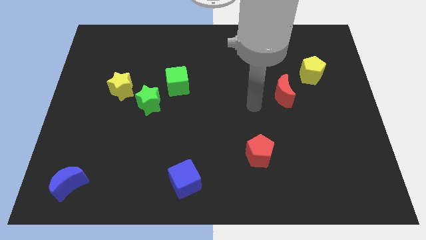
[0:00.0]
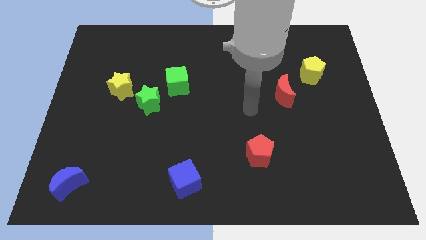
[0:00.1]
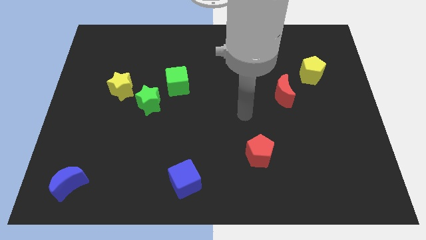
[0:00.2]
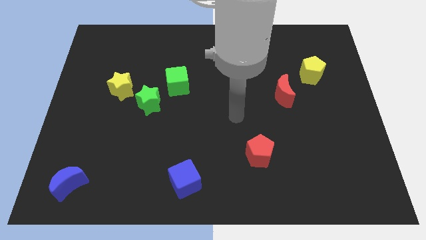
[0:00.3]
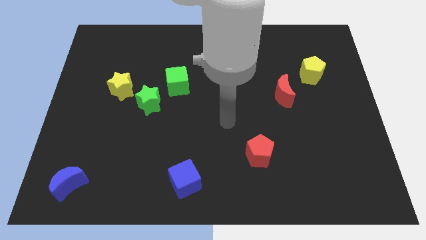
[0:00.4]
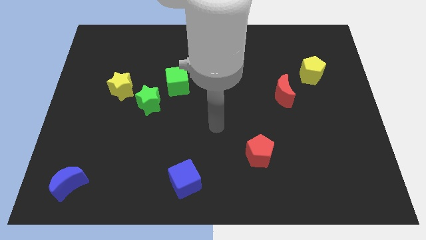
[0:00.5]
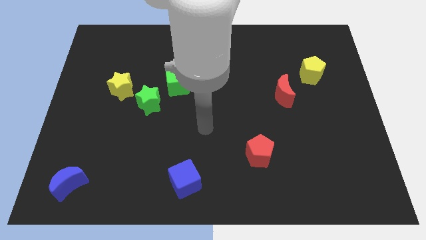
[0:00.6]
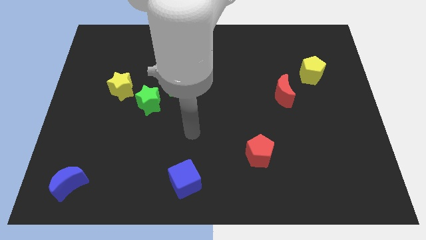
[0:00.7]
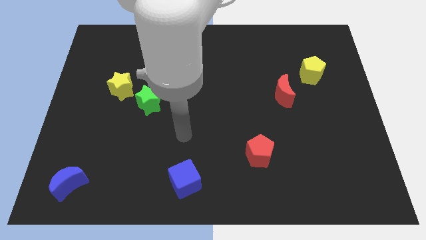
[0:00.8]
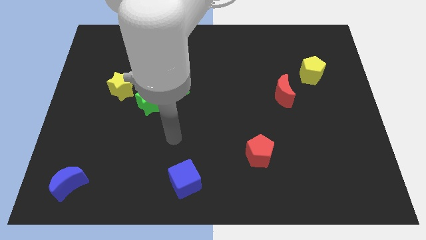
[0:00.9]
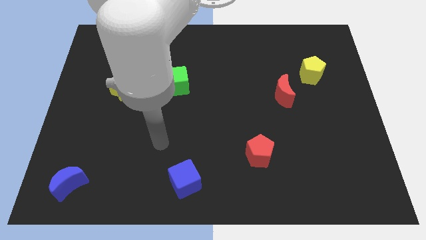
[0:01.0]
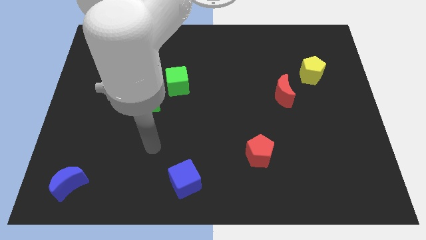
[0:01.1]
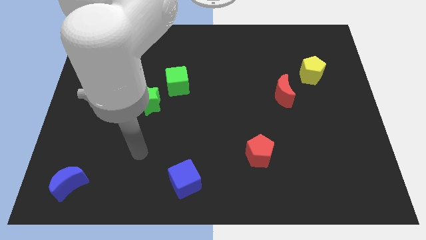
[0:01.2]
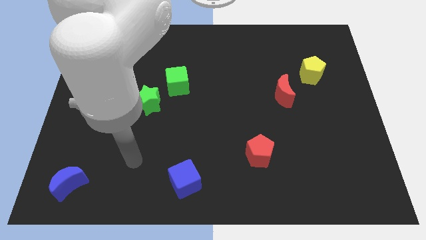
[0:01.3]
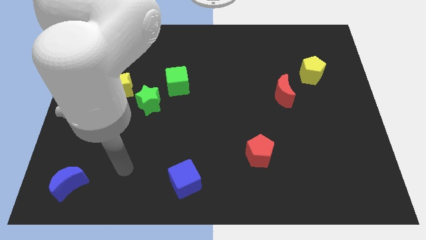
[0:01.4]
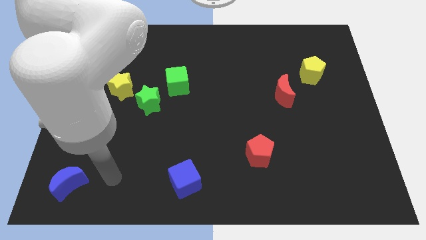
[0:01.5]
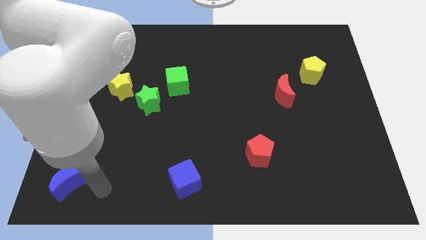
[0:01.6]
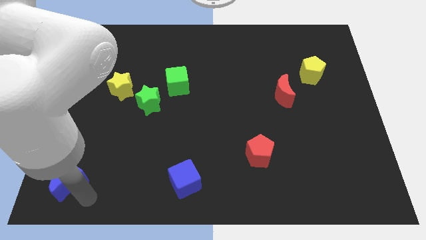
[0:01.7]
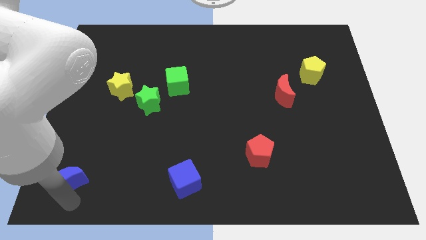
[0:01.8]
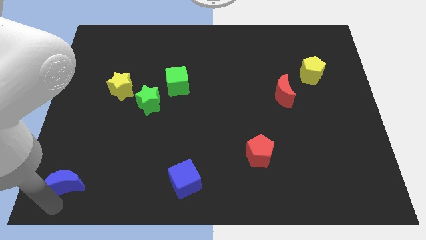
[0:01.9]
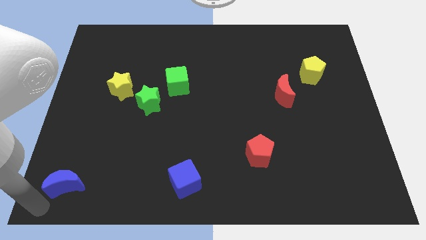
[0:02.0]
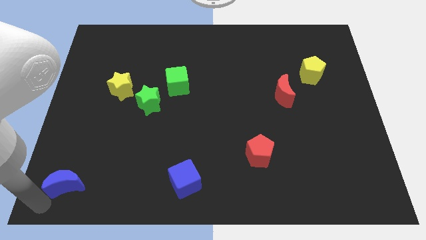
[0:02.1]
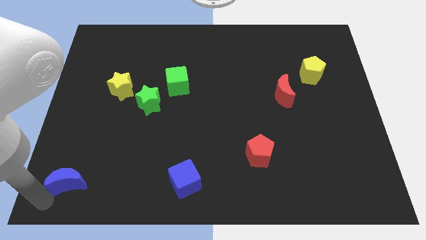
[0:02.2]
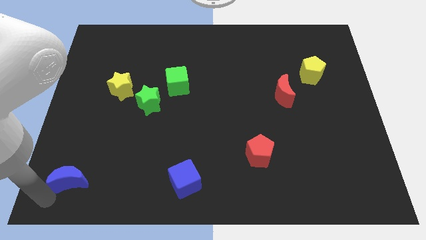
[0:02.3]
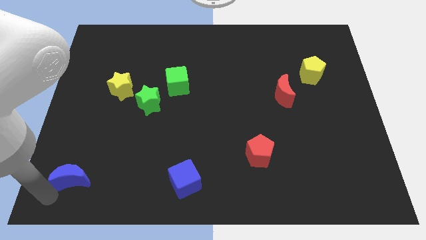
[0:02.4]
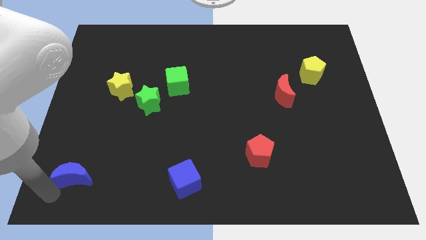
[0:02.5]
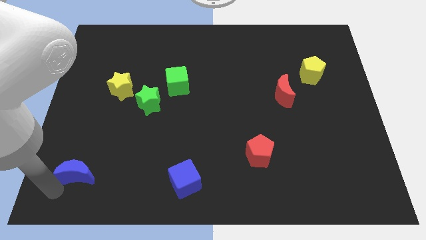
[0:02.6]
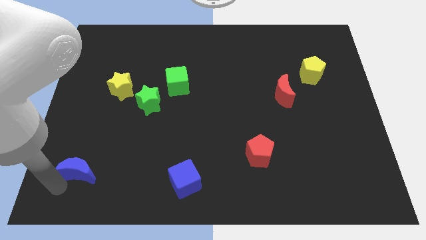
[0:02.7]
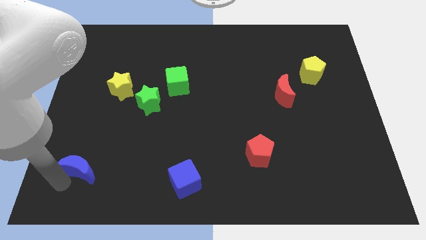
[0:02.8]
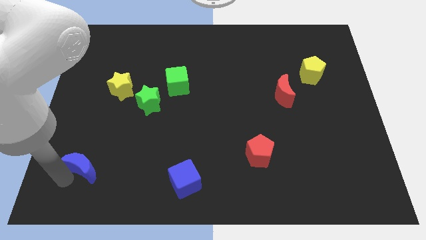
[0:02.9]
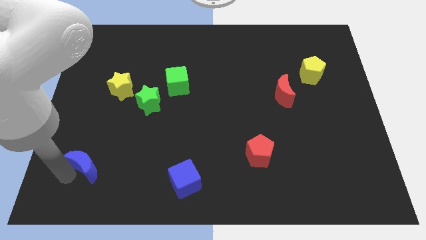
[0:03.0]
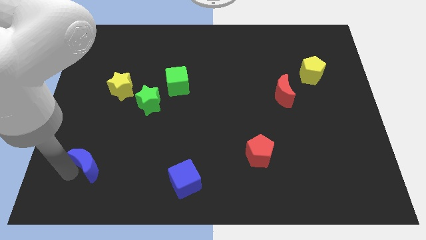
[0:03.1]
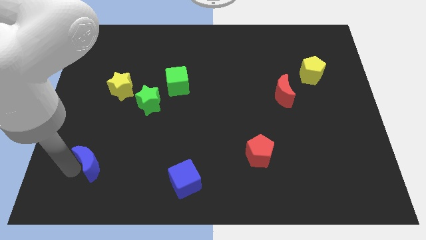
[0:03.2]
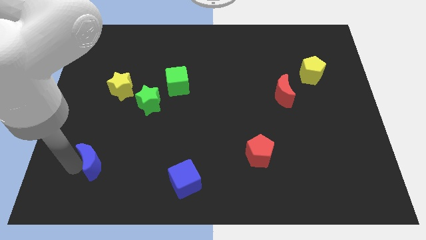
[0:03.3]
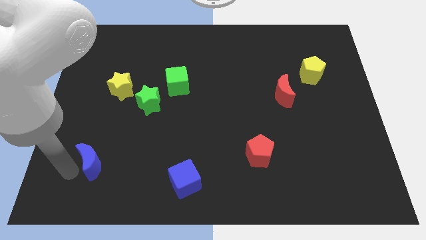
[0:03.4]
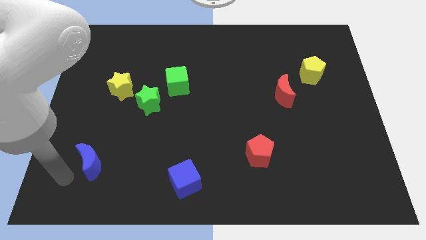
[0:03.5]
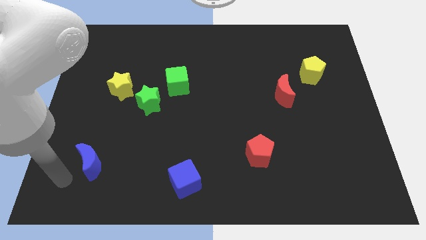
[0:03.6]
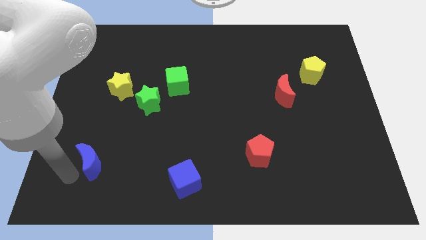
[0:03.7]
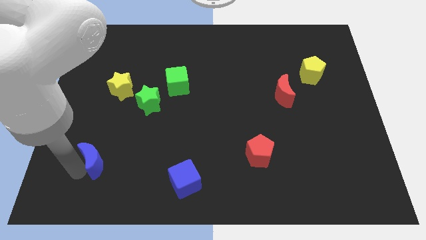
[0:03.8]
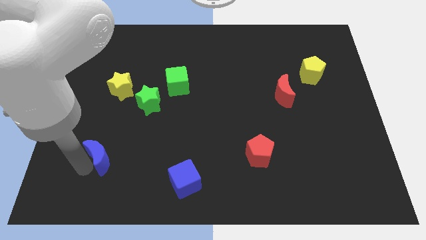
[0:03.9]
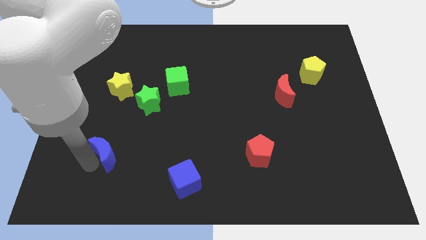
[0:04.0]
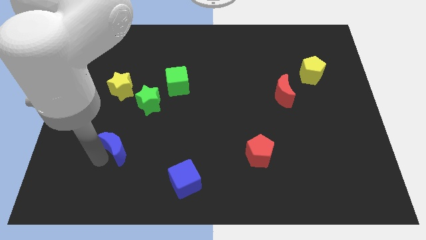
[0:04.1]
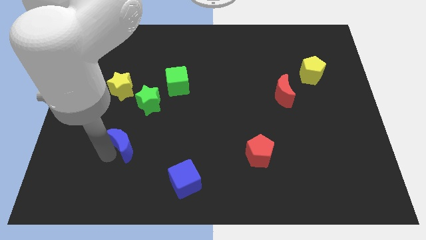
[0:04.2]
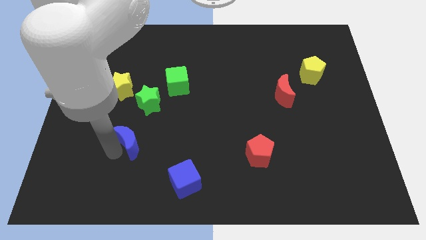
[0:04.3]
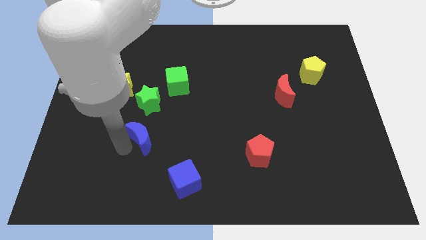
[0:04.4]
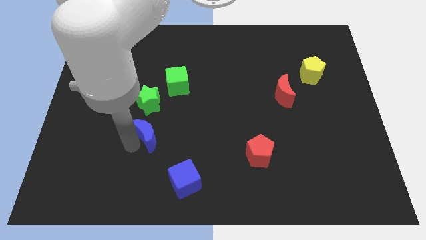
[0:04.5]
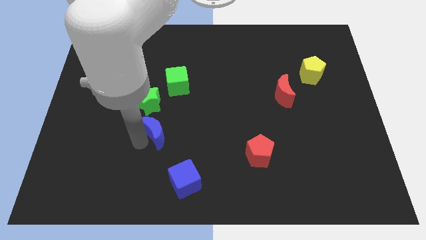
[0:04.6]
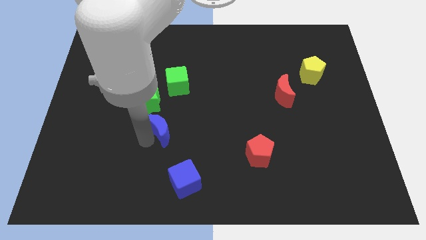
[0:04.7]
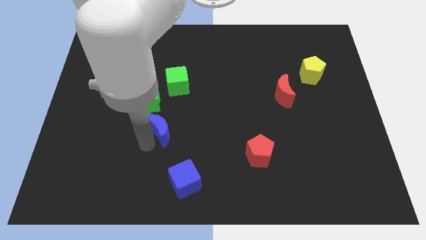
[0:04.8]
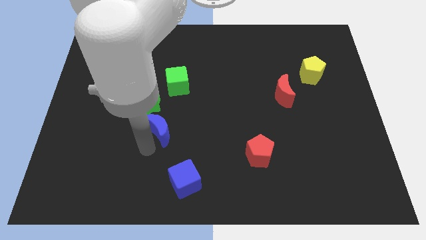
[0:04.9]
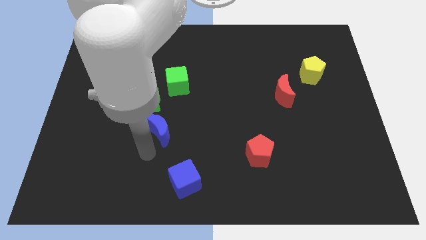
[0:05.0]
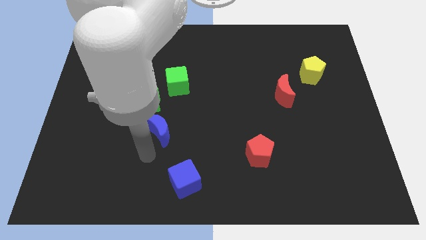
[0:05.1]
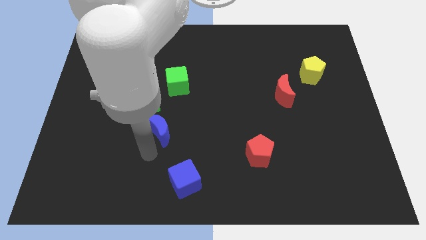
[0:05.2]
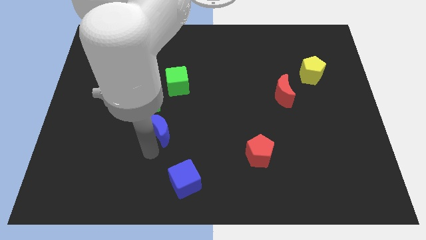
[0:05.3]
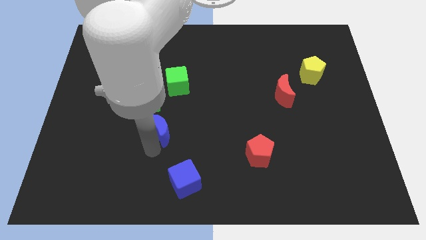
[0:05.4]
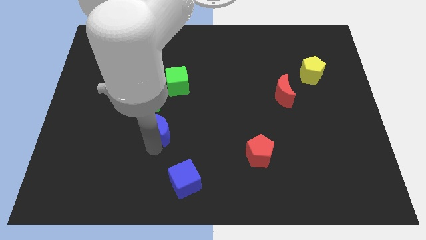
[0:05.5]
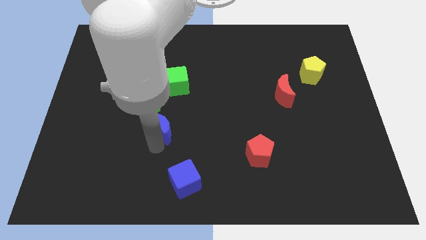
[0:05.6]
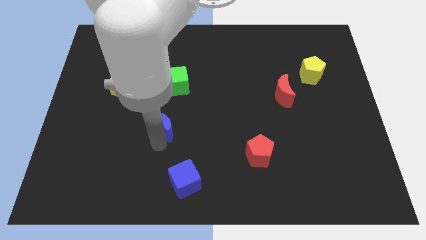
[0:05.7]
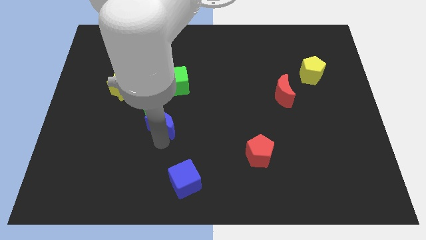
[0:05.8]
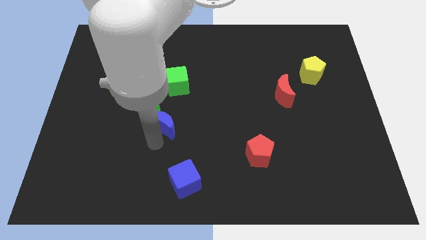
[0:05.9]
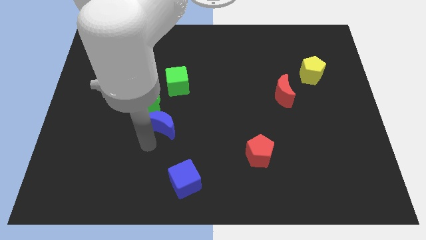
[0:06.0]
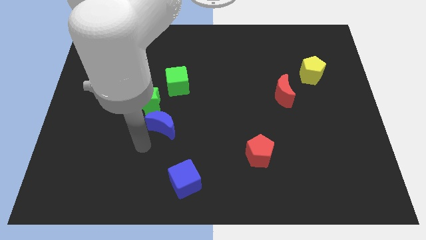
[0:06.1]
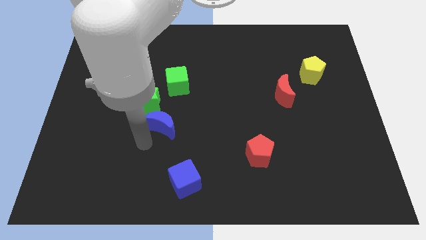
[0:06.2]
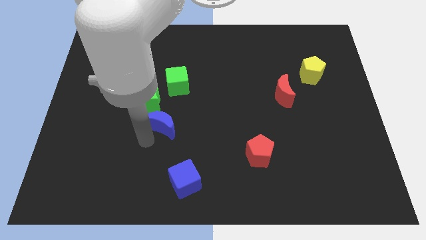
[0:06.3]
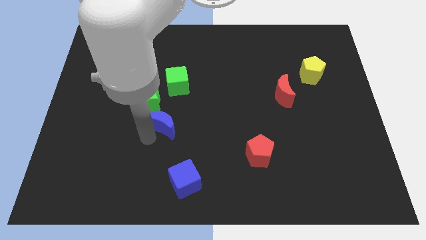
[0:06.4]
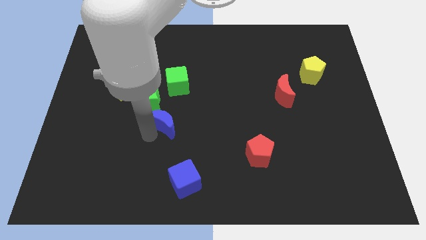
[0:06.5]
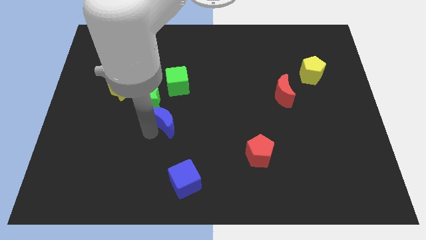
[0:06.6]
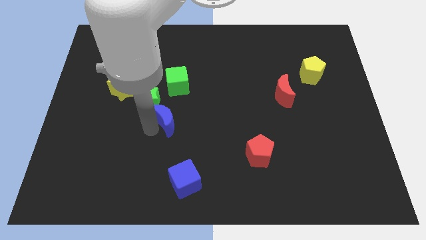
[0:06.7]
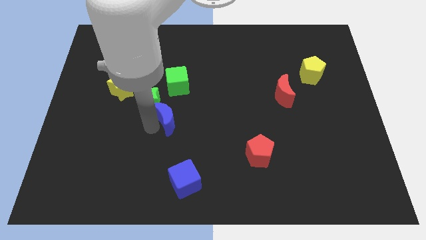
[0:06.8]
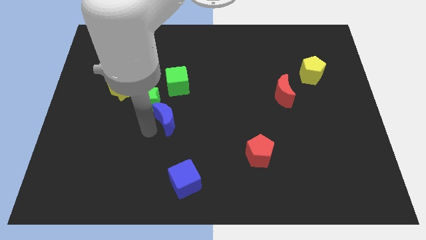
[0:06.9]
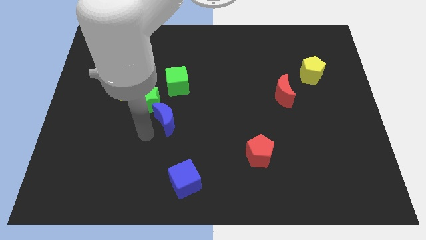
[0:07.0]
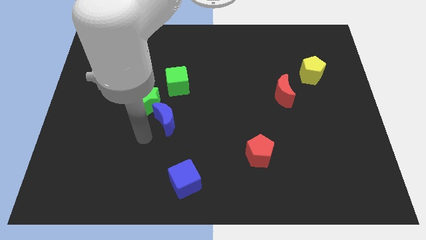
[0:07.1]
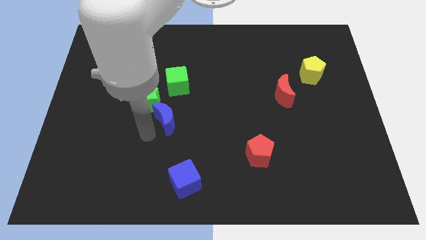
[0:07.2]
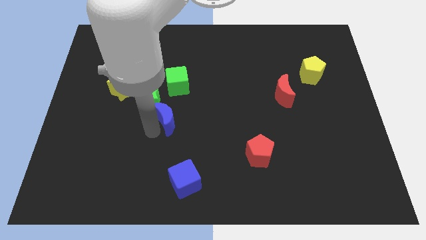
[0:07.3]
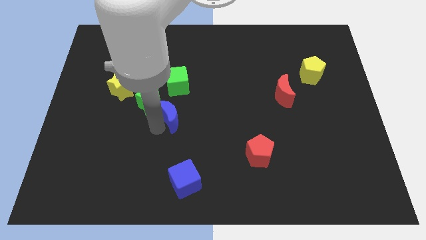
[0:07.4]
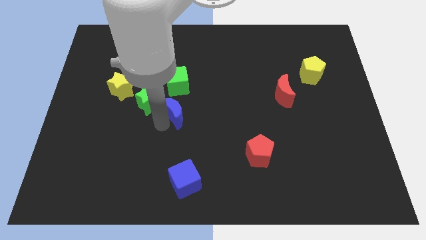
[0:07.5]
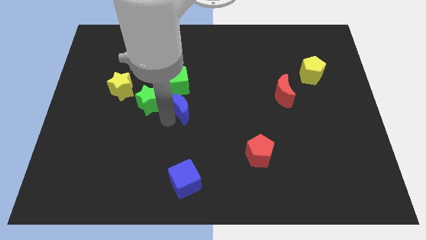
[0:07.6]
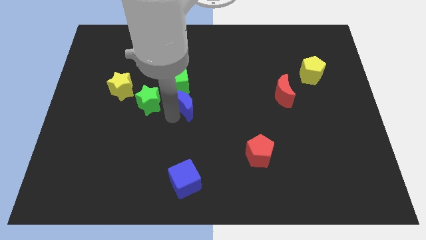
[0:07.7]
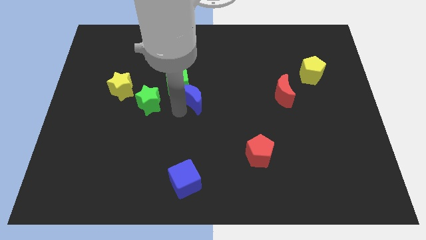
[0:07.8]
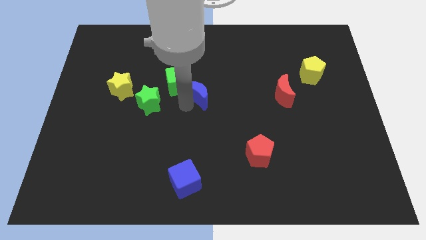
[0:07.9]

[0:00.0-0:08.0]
slide the blue moon to the right of the green cube
